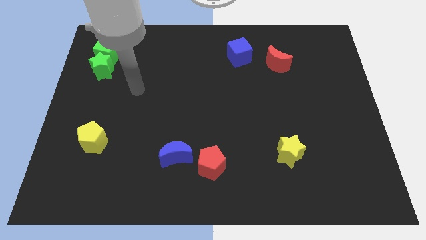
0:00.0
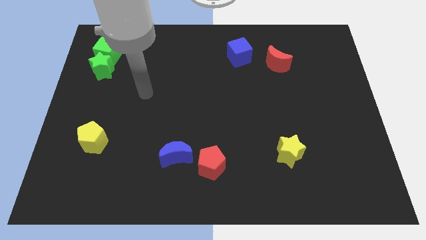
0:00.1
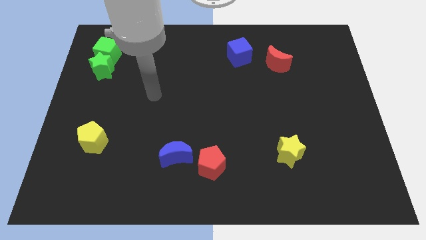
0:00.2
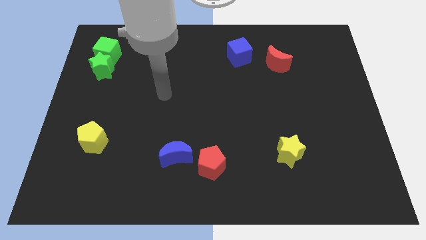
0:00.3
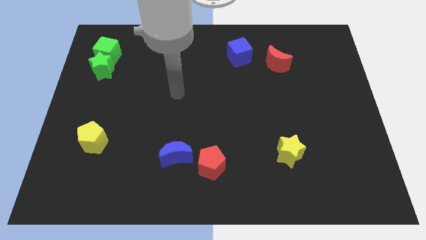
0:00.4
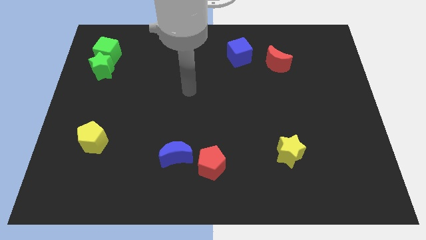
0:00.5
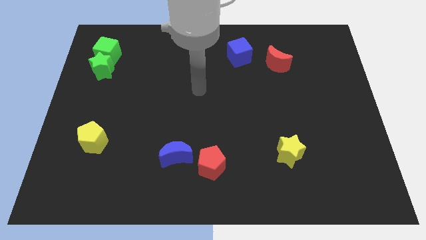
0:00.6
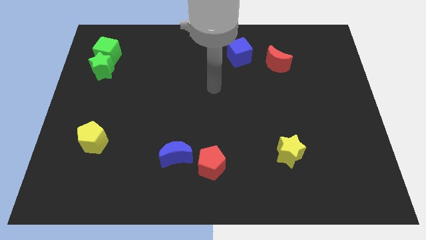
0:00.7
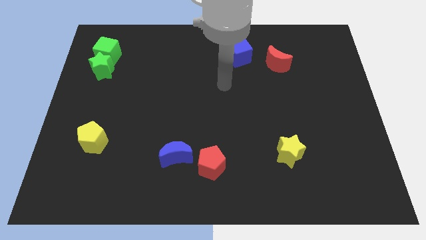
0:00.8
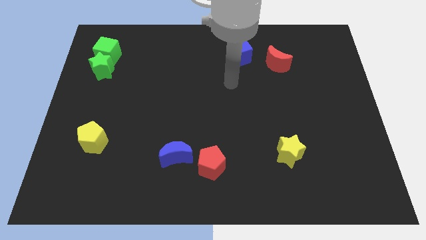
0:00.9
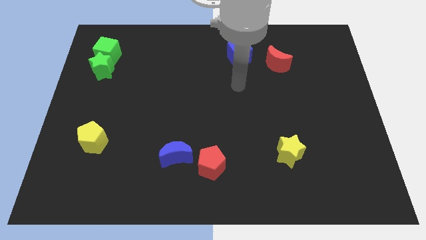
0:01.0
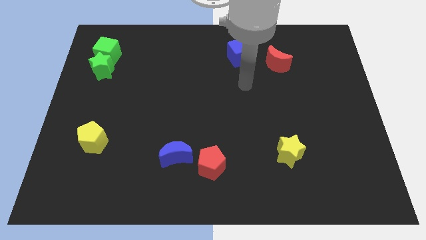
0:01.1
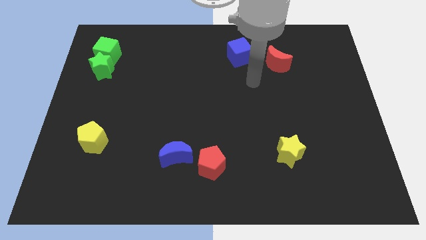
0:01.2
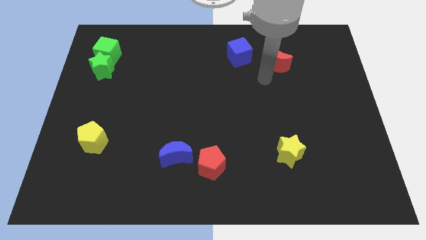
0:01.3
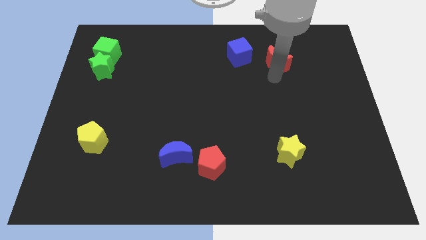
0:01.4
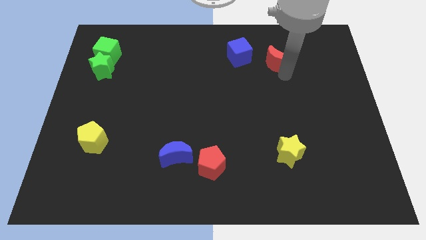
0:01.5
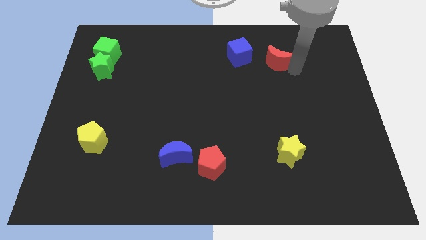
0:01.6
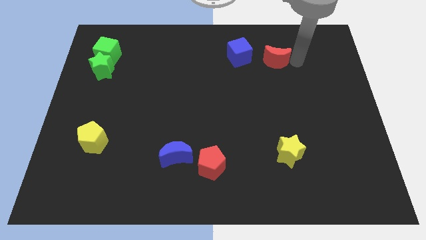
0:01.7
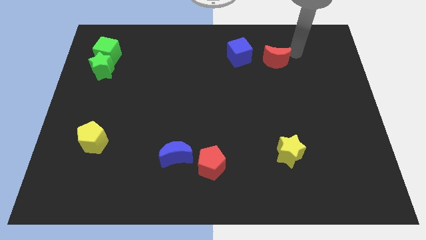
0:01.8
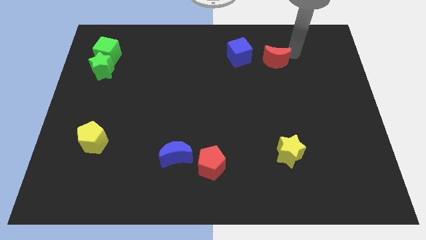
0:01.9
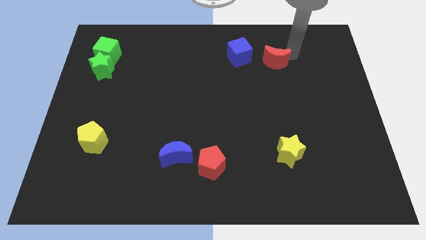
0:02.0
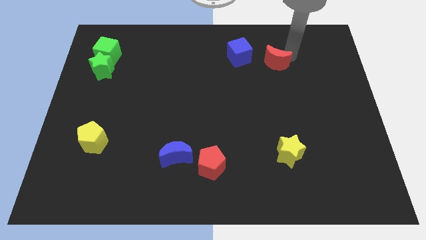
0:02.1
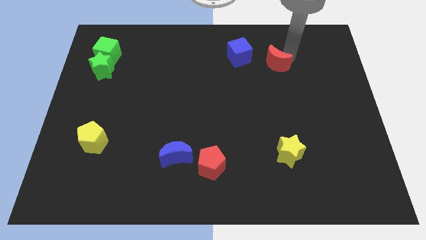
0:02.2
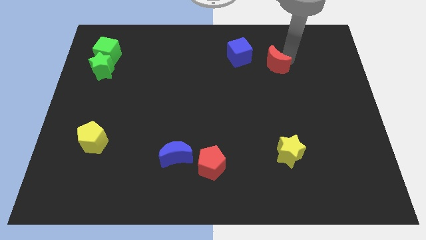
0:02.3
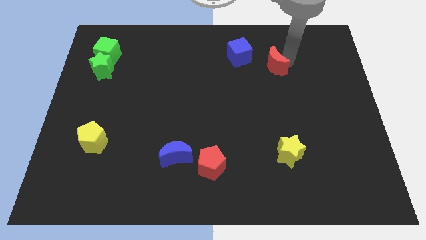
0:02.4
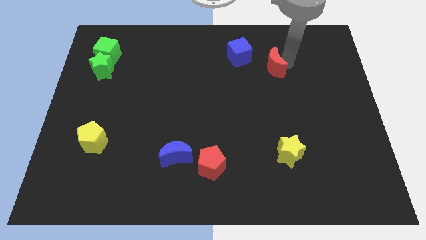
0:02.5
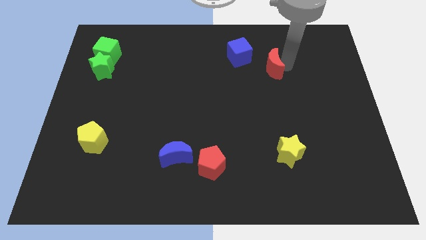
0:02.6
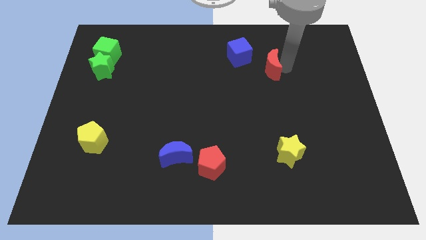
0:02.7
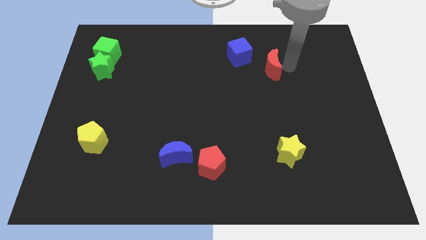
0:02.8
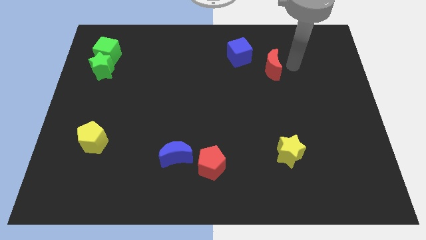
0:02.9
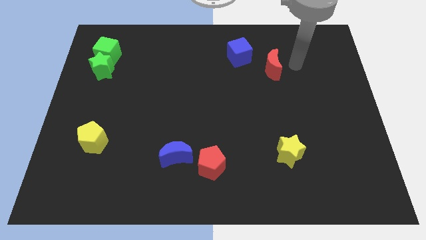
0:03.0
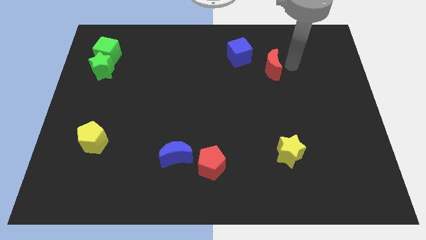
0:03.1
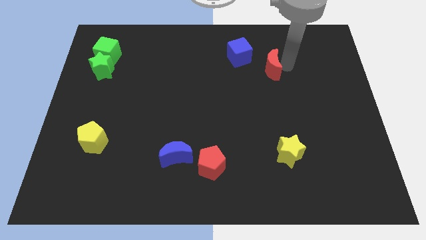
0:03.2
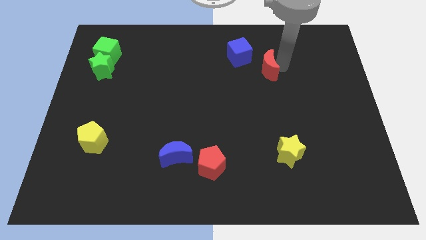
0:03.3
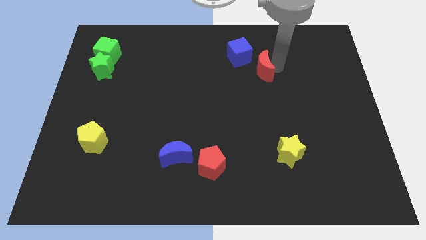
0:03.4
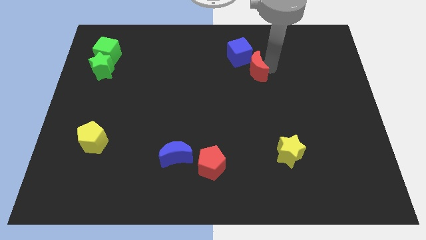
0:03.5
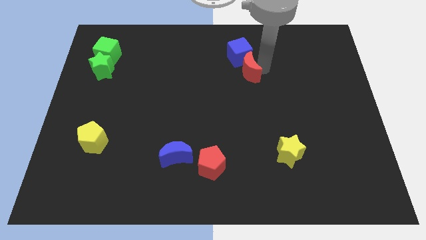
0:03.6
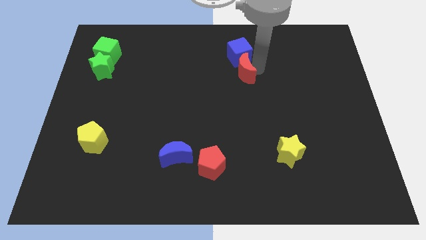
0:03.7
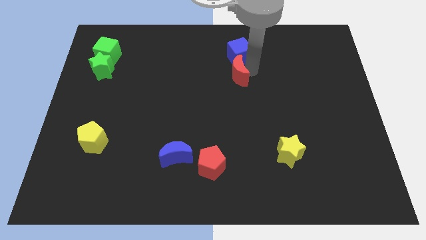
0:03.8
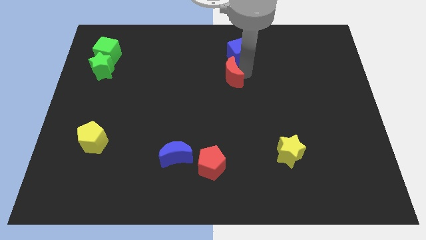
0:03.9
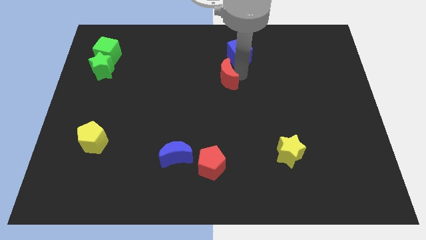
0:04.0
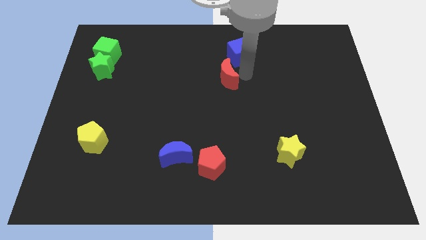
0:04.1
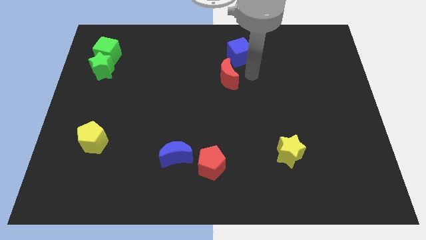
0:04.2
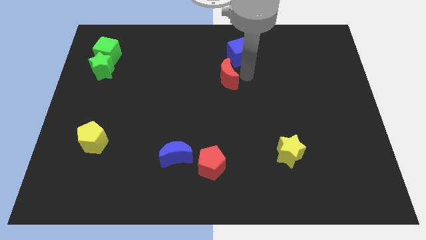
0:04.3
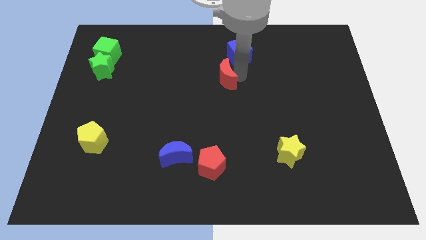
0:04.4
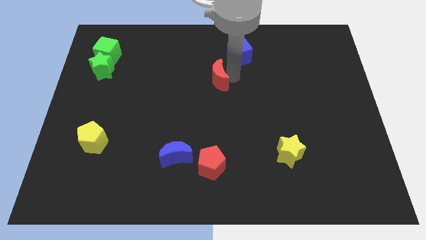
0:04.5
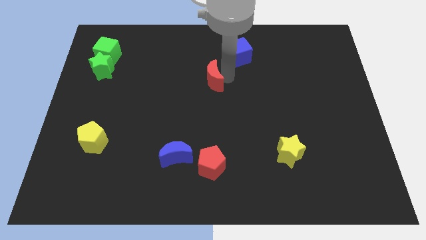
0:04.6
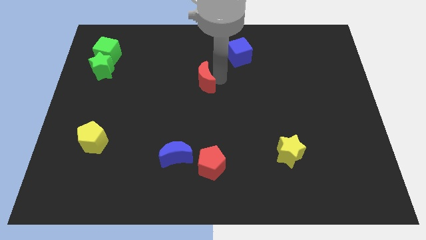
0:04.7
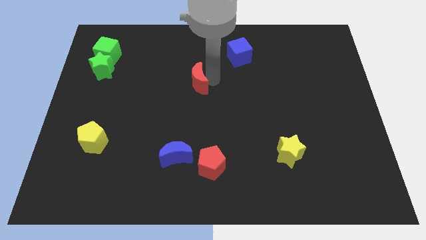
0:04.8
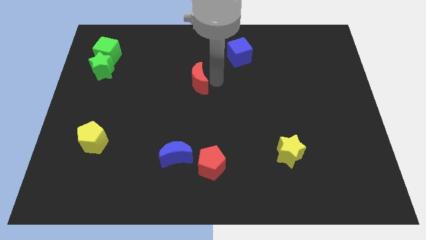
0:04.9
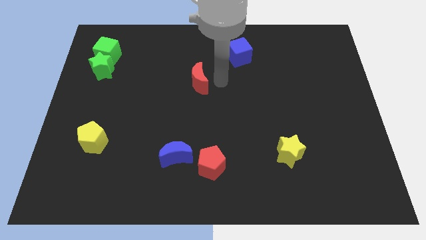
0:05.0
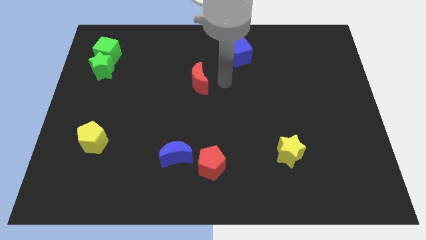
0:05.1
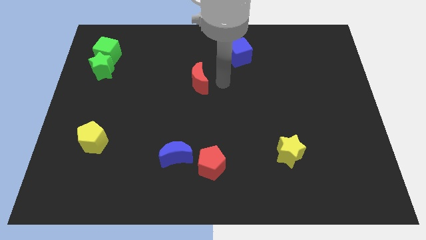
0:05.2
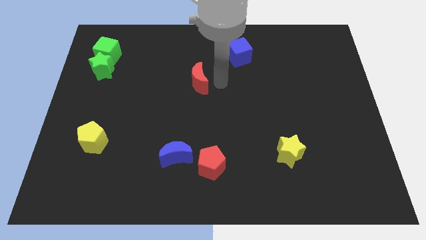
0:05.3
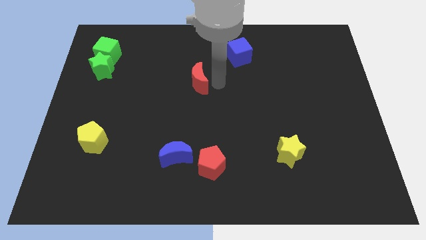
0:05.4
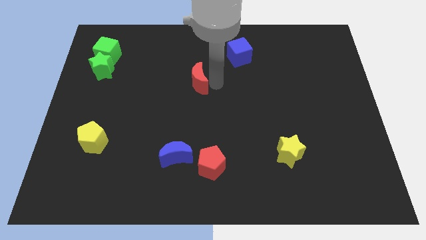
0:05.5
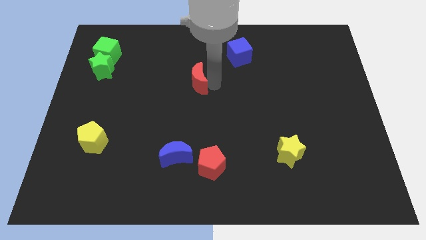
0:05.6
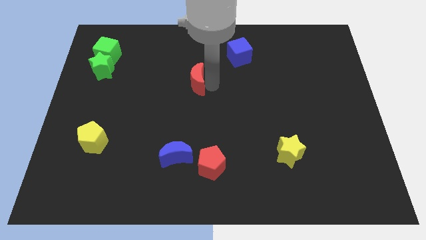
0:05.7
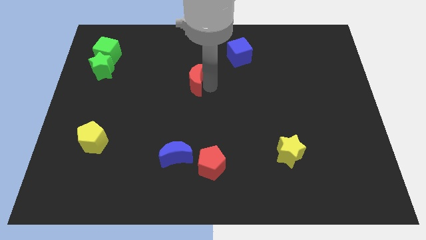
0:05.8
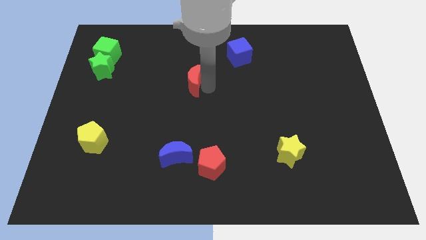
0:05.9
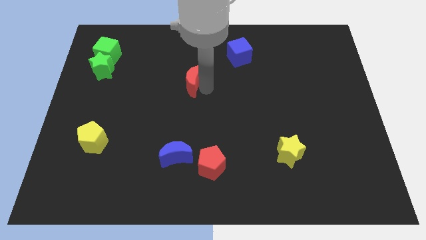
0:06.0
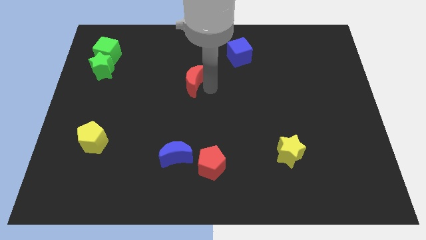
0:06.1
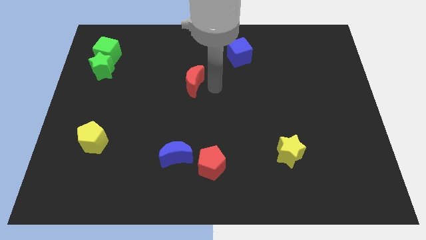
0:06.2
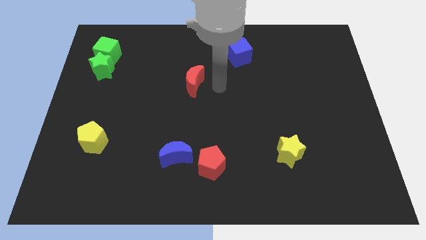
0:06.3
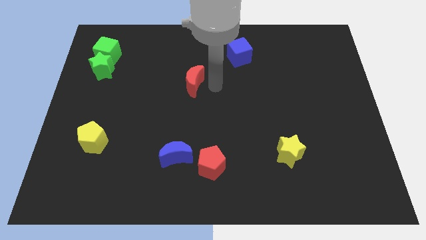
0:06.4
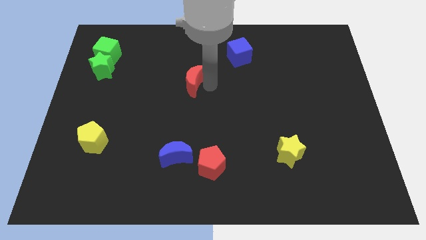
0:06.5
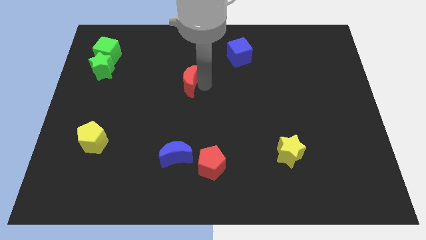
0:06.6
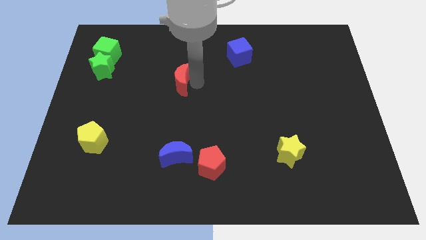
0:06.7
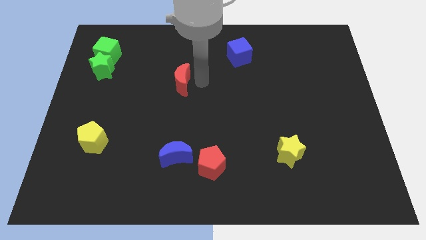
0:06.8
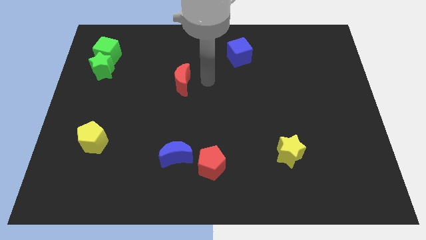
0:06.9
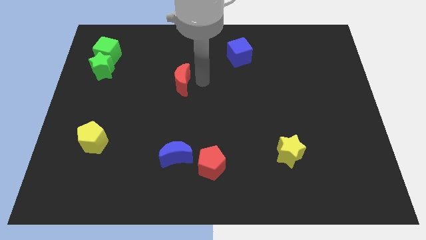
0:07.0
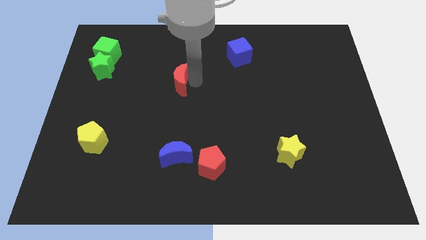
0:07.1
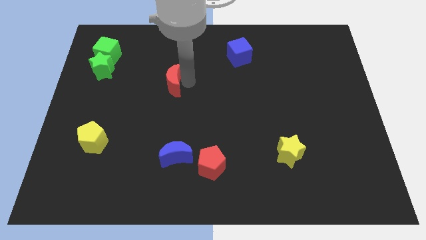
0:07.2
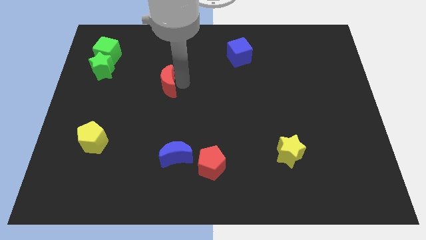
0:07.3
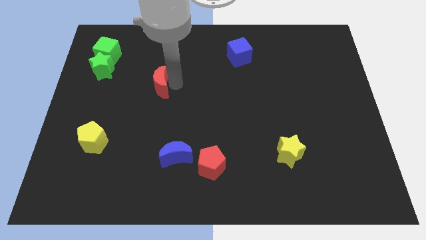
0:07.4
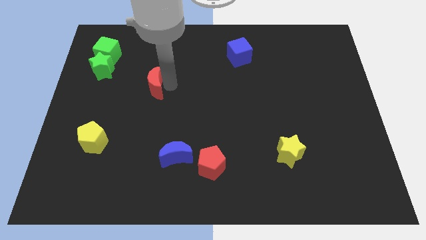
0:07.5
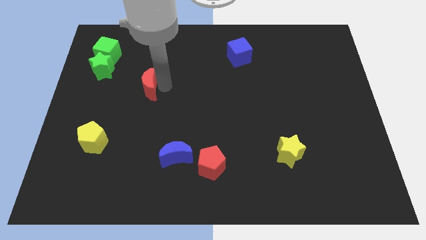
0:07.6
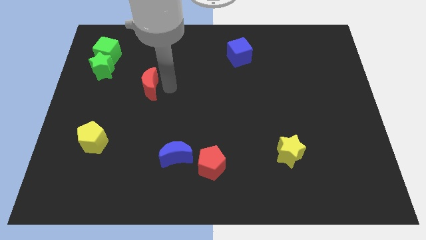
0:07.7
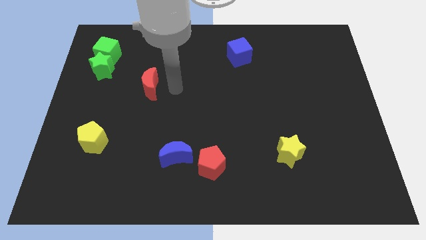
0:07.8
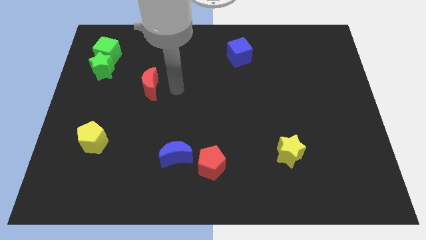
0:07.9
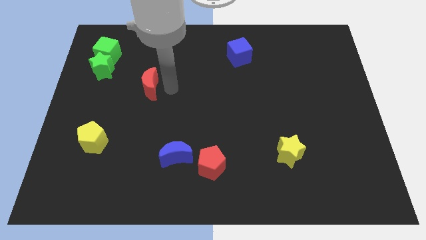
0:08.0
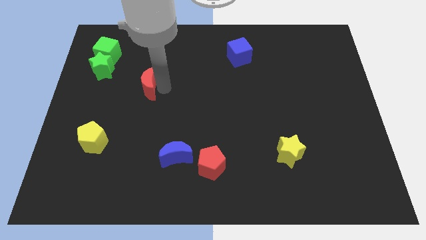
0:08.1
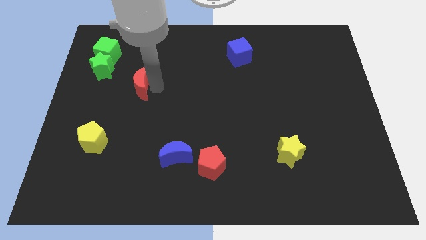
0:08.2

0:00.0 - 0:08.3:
move the red moon to the bottom right of the green star
